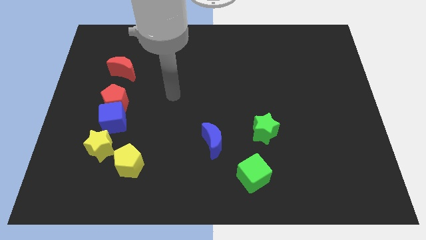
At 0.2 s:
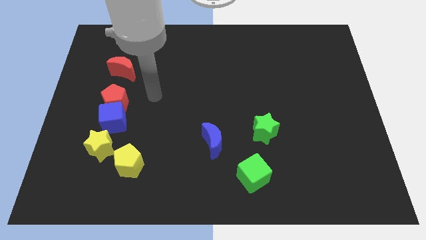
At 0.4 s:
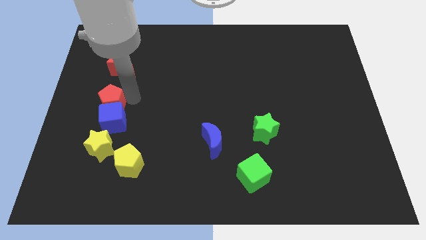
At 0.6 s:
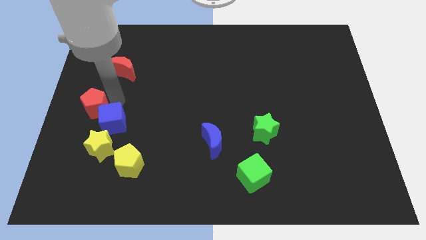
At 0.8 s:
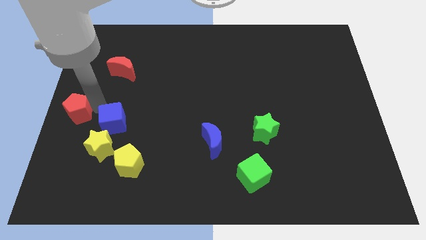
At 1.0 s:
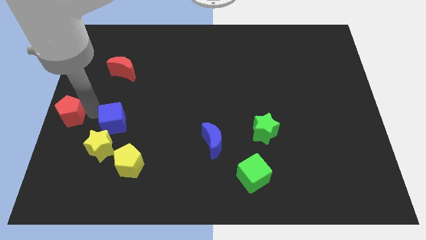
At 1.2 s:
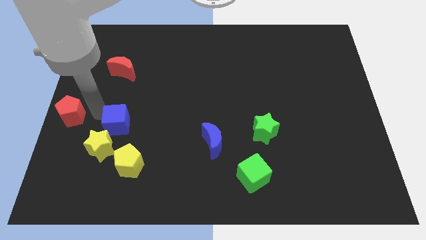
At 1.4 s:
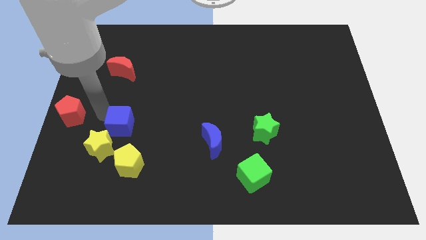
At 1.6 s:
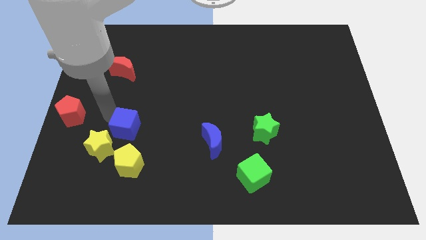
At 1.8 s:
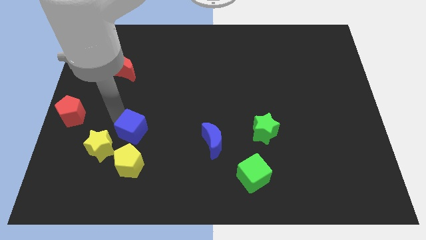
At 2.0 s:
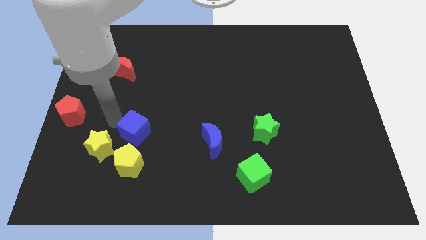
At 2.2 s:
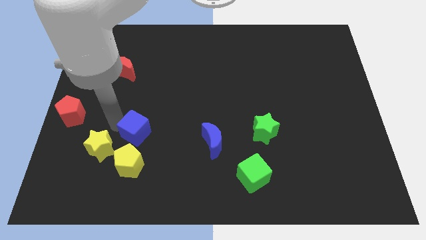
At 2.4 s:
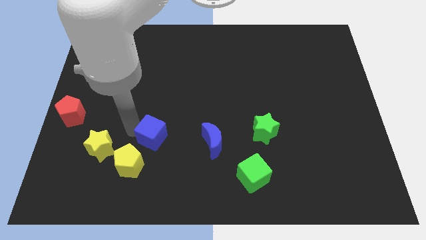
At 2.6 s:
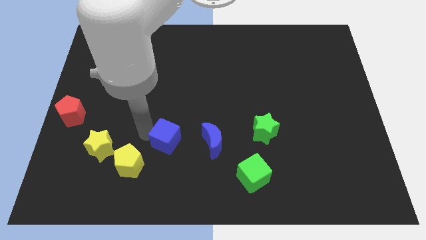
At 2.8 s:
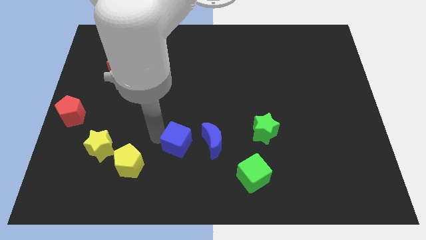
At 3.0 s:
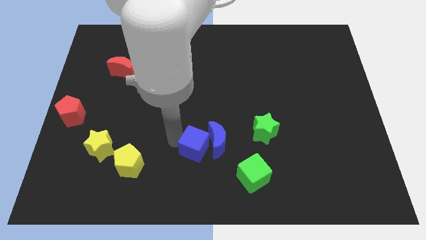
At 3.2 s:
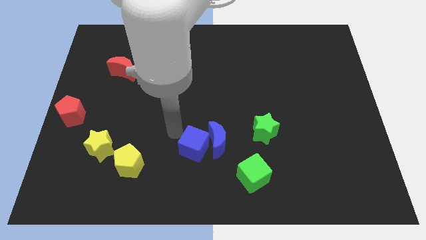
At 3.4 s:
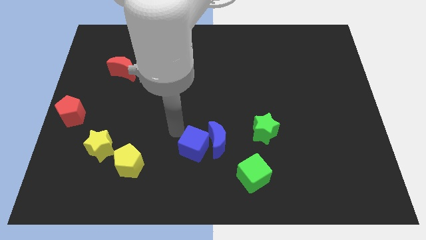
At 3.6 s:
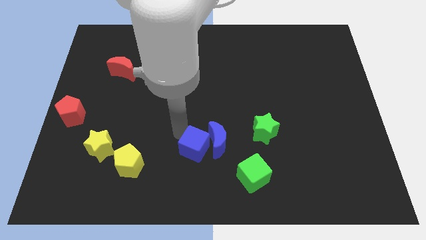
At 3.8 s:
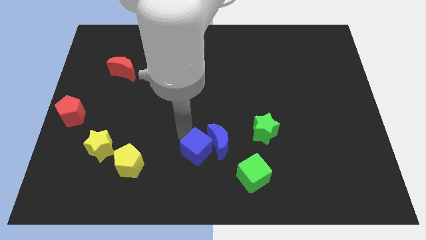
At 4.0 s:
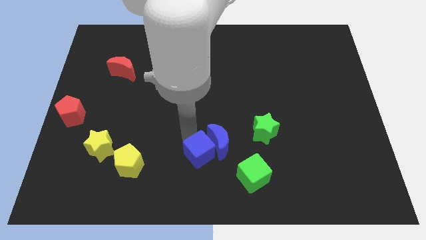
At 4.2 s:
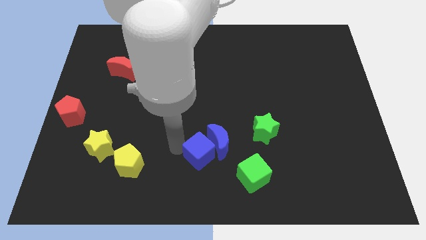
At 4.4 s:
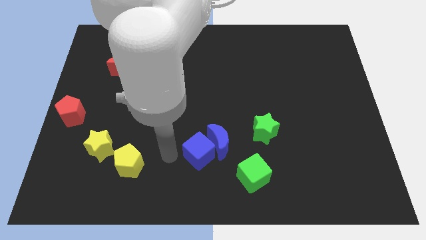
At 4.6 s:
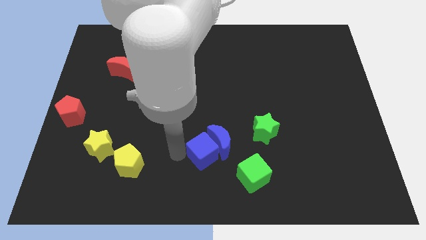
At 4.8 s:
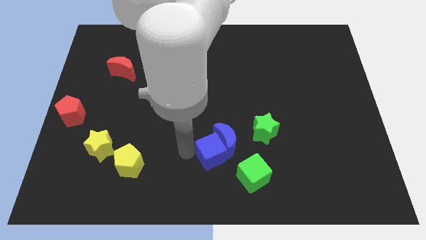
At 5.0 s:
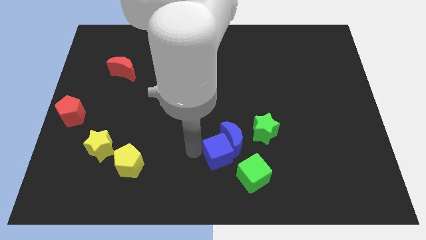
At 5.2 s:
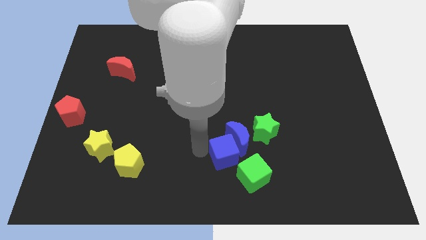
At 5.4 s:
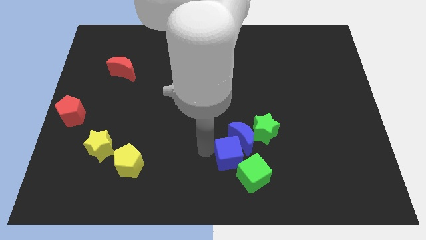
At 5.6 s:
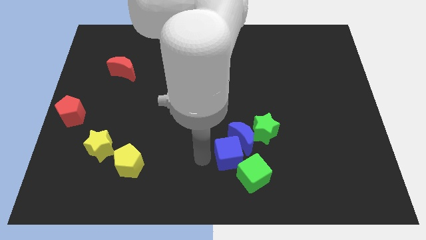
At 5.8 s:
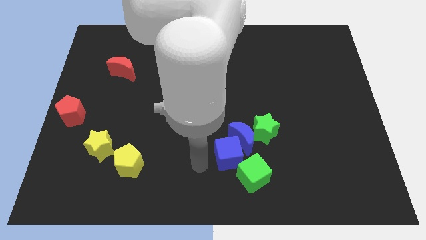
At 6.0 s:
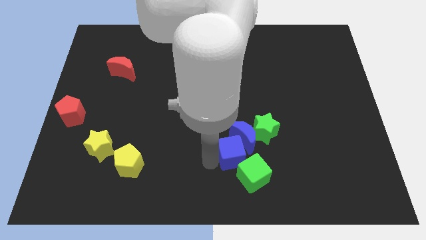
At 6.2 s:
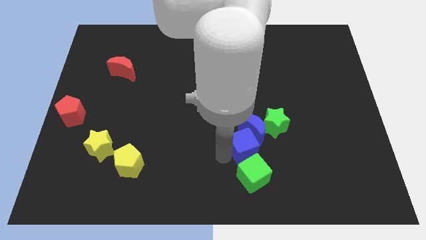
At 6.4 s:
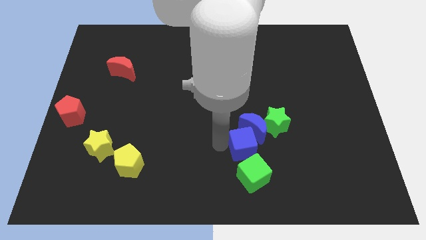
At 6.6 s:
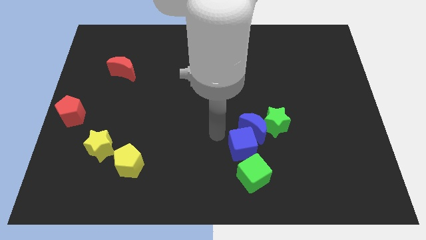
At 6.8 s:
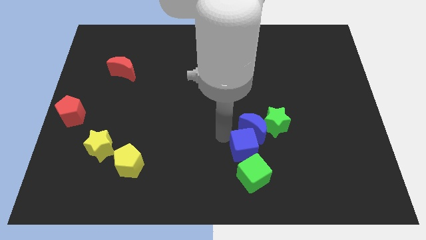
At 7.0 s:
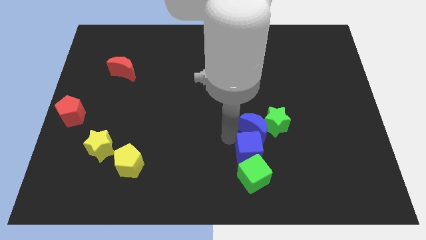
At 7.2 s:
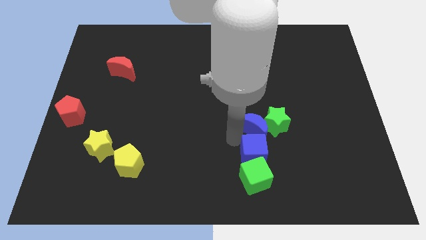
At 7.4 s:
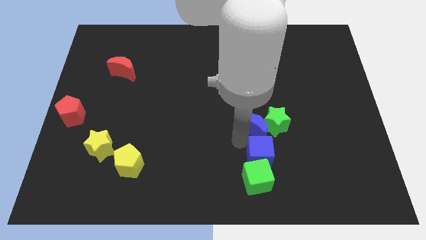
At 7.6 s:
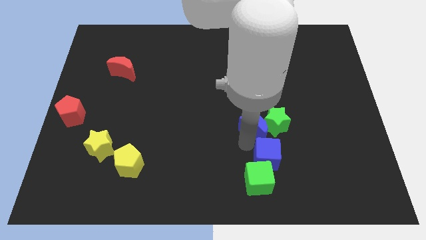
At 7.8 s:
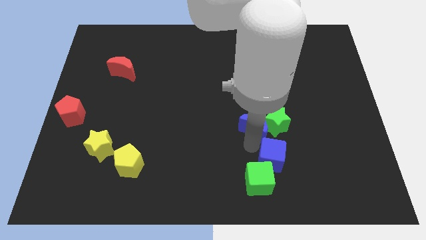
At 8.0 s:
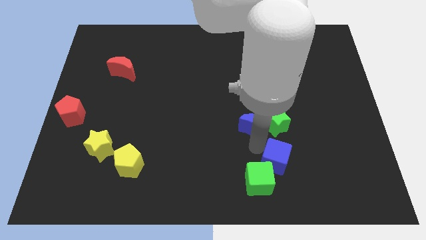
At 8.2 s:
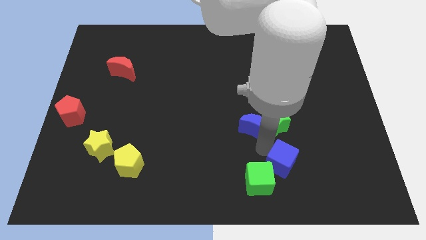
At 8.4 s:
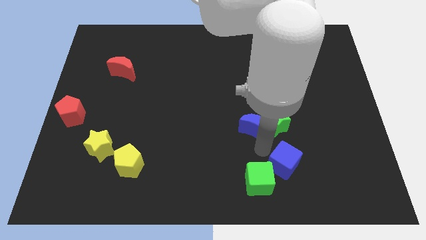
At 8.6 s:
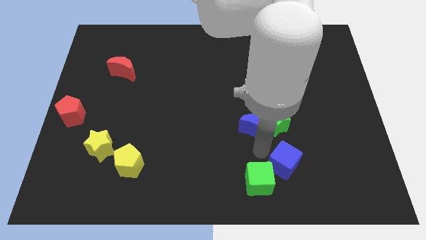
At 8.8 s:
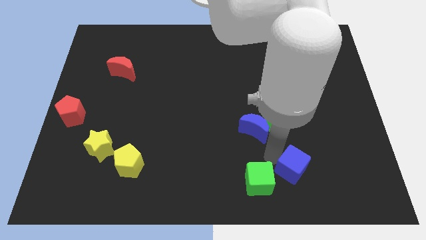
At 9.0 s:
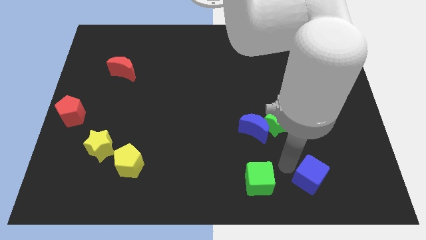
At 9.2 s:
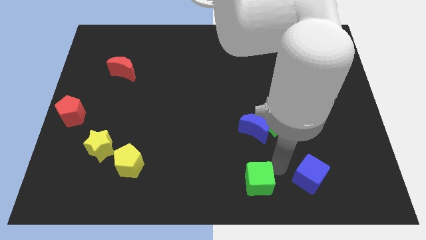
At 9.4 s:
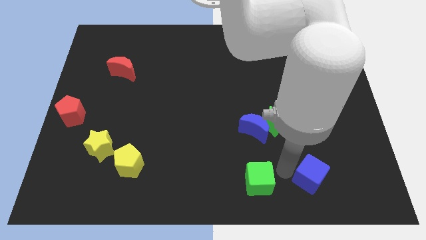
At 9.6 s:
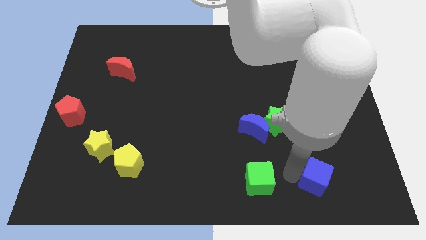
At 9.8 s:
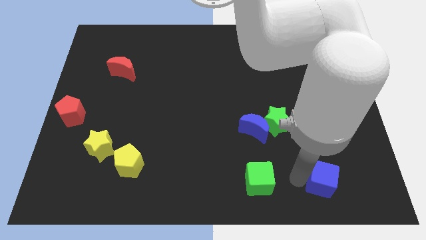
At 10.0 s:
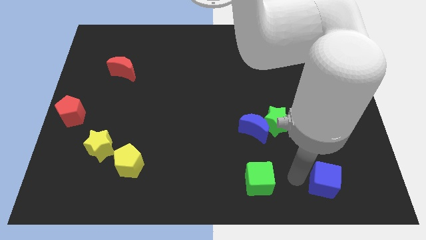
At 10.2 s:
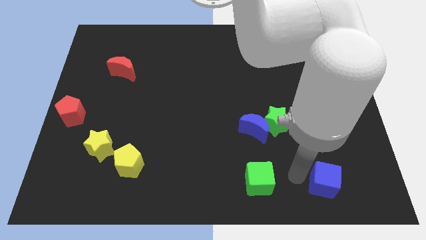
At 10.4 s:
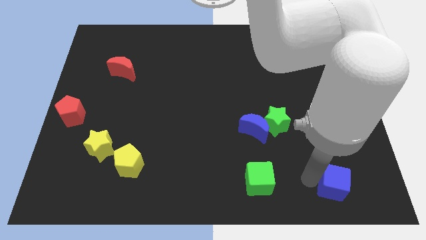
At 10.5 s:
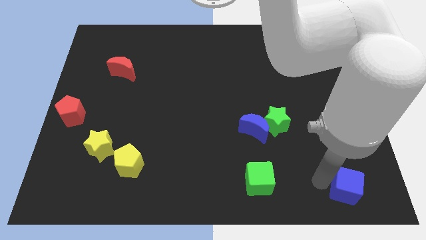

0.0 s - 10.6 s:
slide the blue cube to the lower right corner

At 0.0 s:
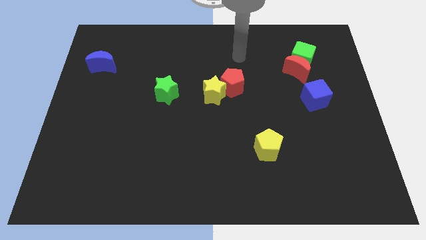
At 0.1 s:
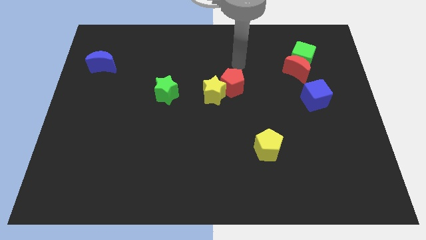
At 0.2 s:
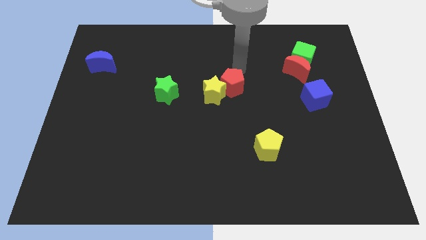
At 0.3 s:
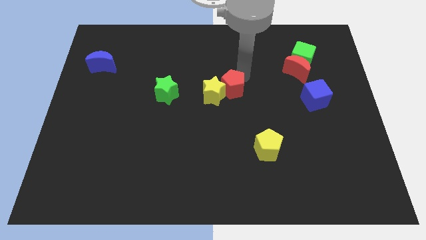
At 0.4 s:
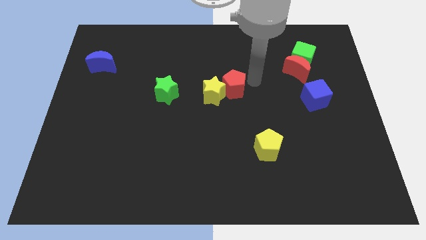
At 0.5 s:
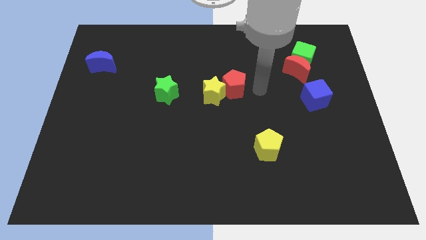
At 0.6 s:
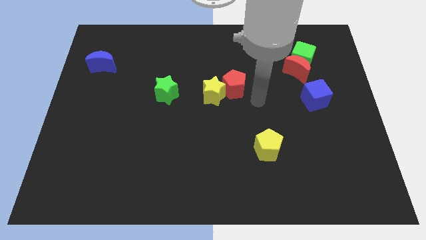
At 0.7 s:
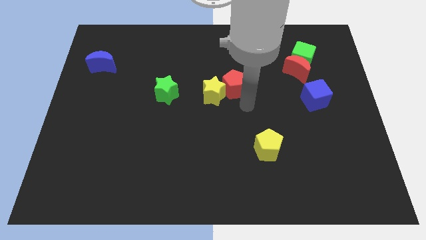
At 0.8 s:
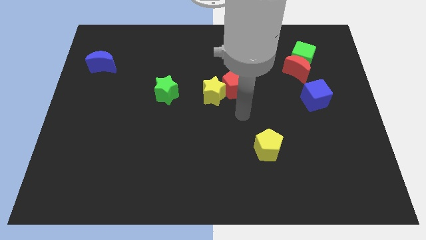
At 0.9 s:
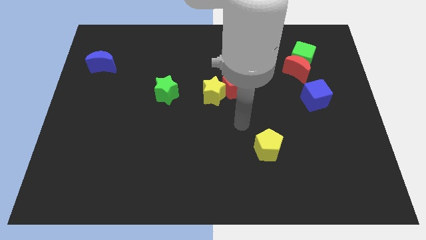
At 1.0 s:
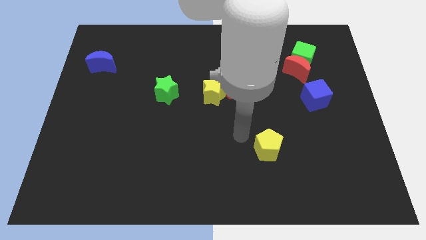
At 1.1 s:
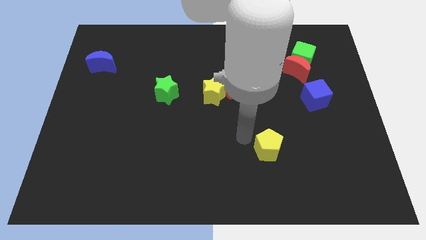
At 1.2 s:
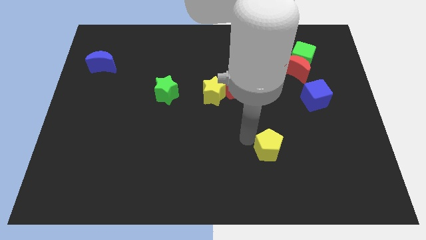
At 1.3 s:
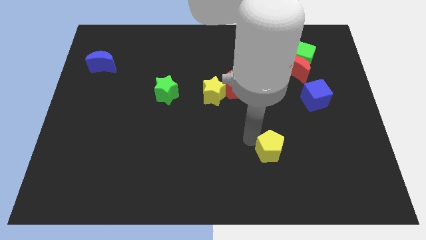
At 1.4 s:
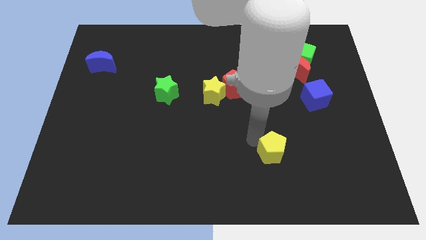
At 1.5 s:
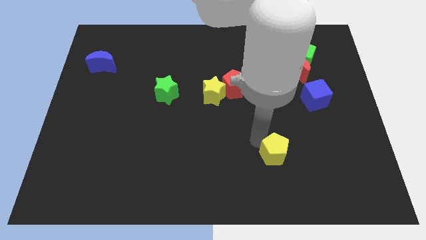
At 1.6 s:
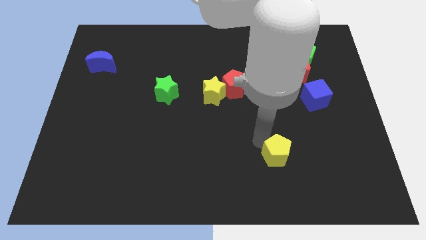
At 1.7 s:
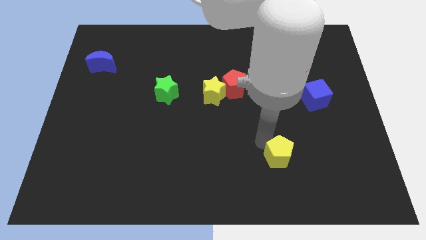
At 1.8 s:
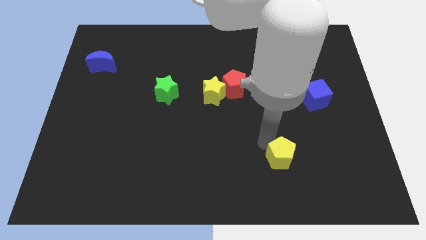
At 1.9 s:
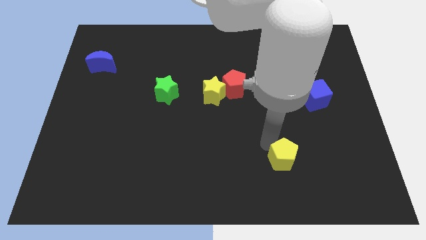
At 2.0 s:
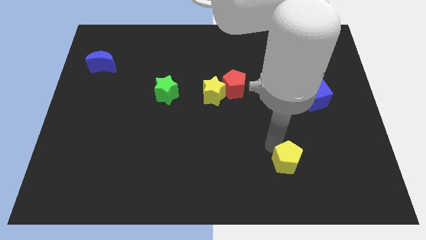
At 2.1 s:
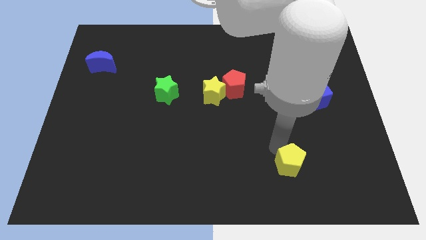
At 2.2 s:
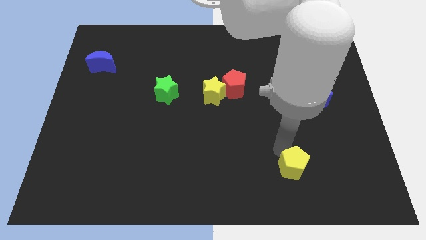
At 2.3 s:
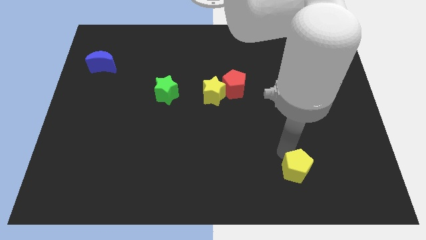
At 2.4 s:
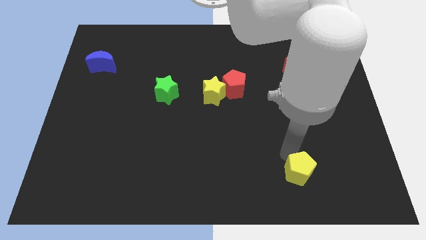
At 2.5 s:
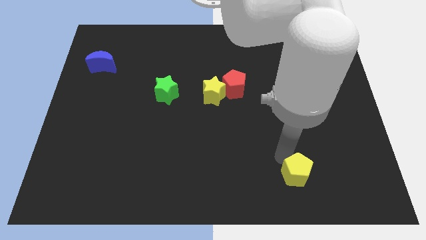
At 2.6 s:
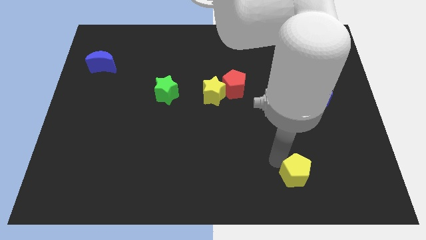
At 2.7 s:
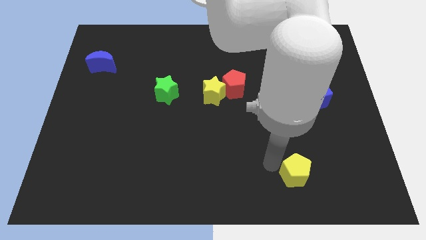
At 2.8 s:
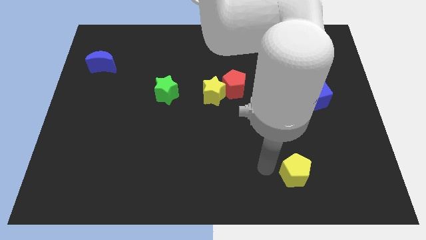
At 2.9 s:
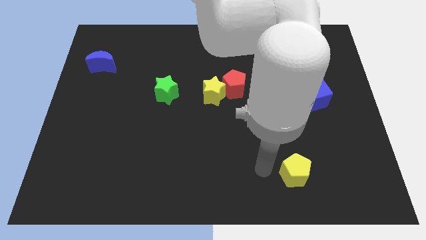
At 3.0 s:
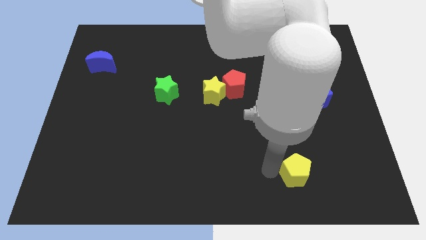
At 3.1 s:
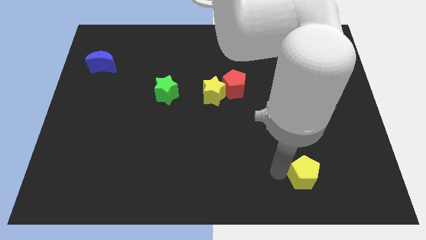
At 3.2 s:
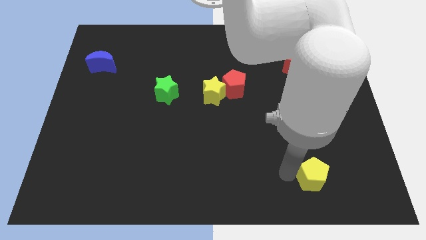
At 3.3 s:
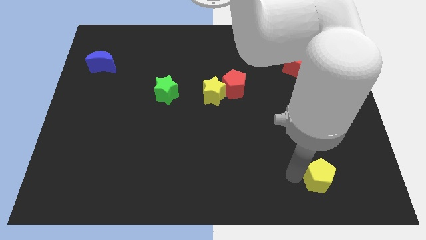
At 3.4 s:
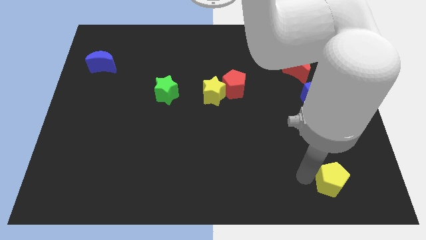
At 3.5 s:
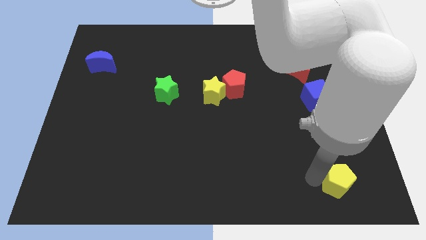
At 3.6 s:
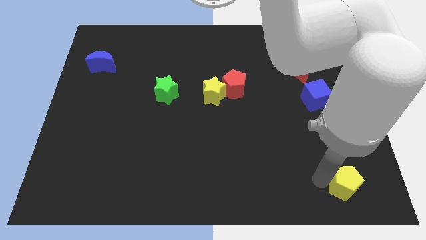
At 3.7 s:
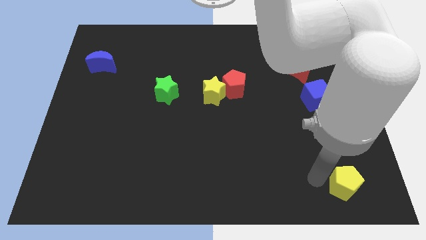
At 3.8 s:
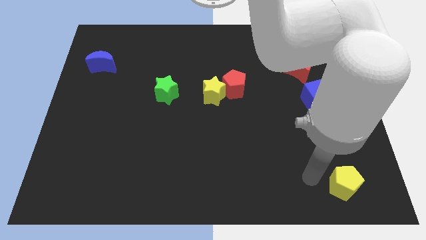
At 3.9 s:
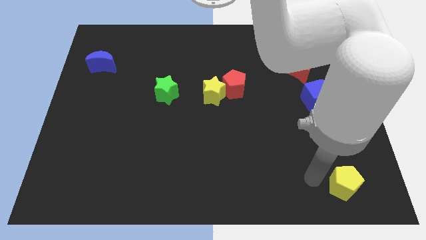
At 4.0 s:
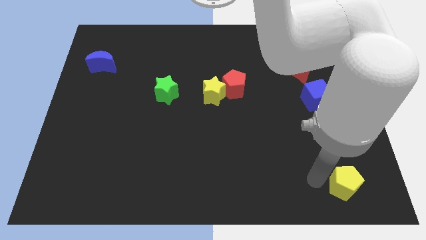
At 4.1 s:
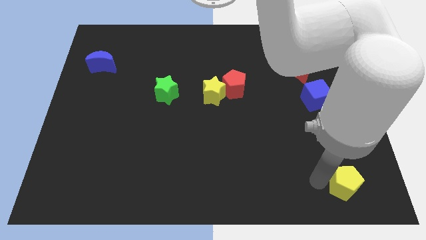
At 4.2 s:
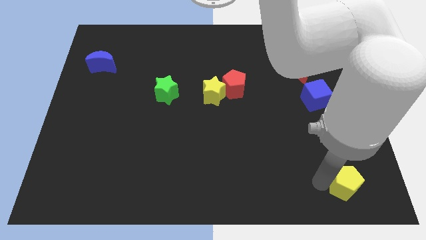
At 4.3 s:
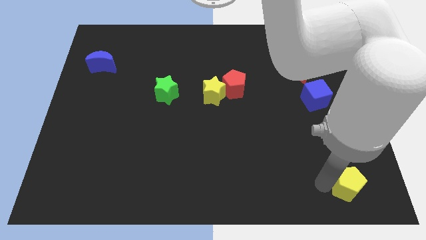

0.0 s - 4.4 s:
push the yellow pentagon to the bottom right of the board
